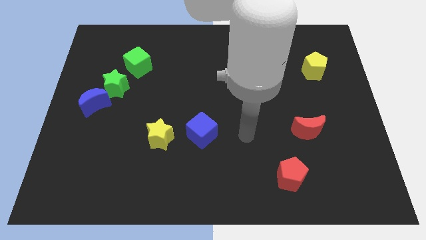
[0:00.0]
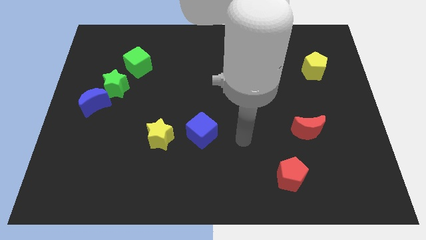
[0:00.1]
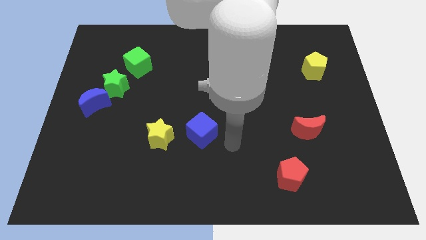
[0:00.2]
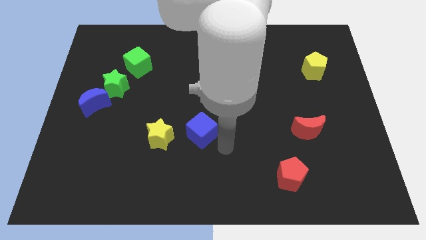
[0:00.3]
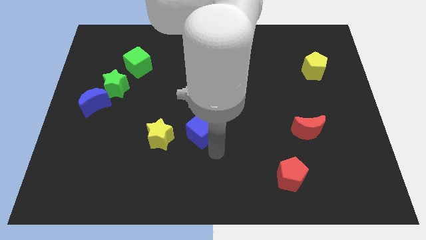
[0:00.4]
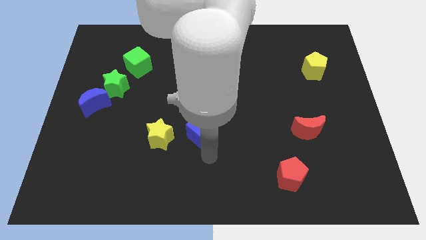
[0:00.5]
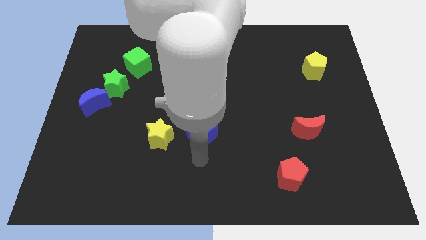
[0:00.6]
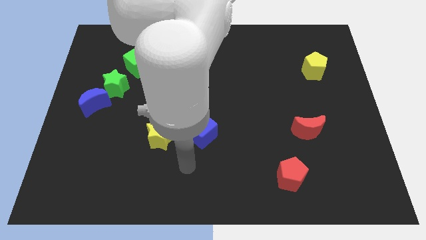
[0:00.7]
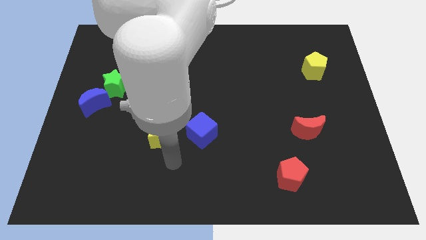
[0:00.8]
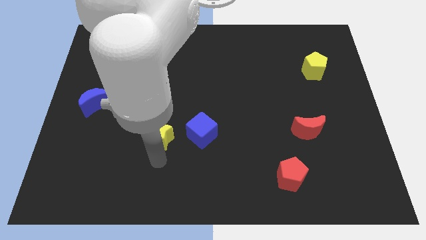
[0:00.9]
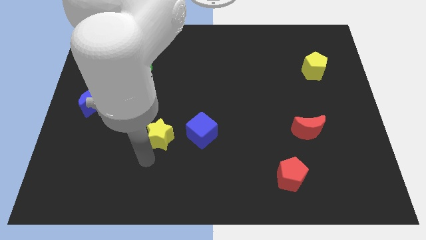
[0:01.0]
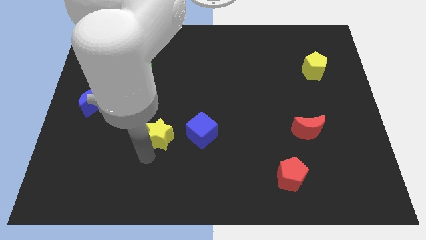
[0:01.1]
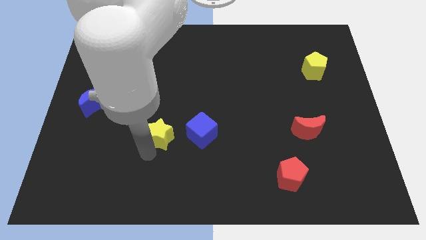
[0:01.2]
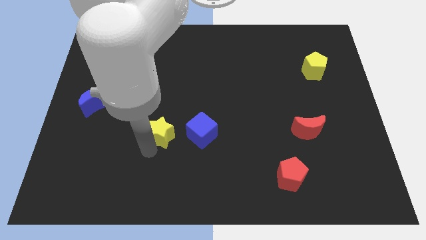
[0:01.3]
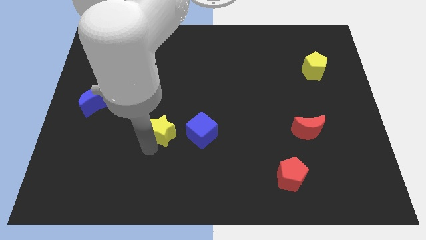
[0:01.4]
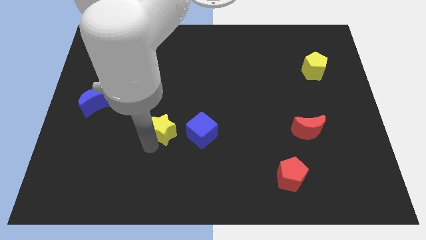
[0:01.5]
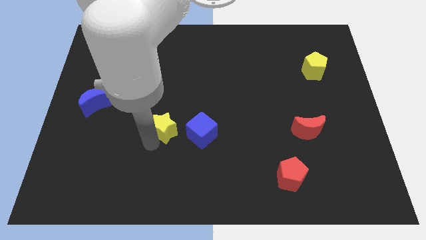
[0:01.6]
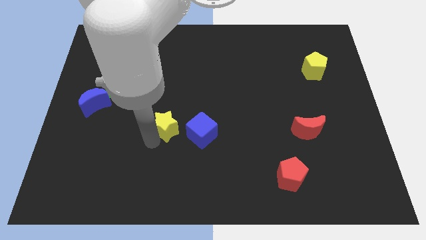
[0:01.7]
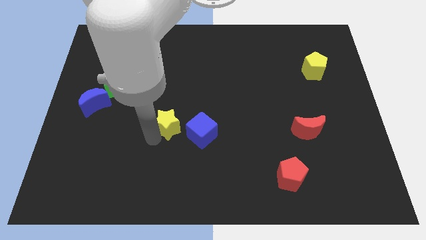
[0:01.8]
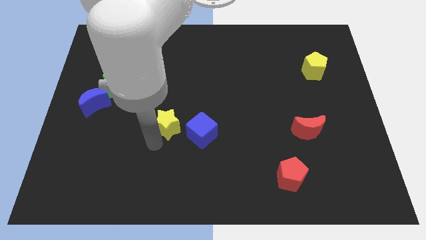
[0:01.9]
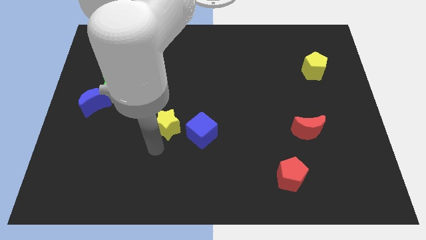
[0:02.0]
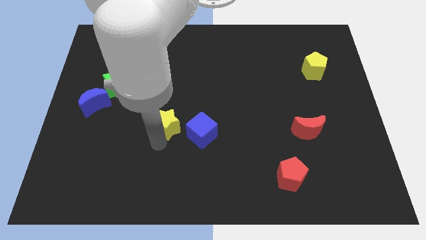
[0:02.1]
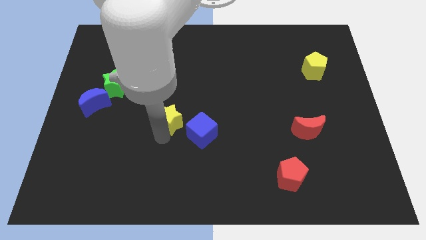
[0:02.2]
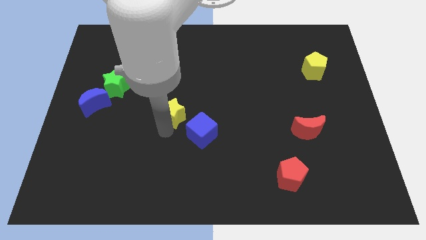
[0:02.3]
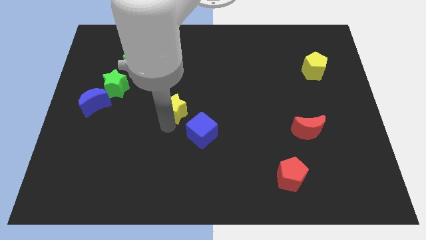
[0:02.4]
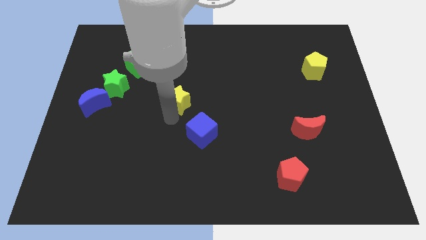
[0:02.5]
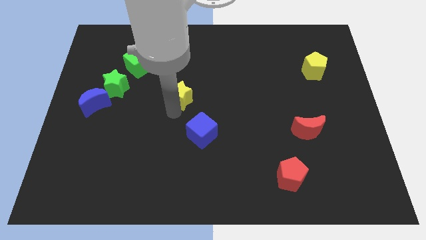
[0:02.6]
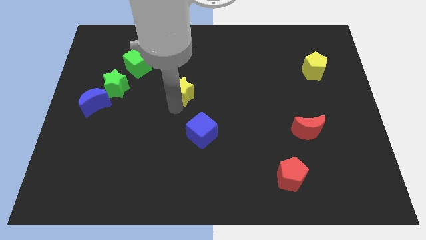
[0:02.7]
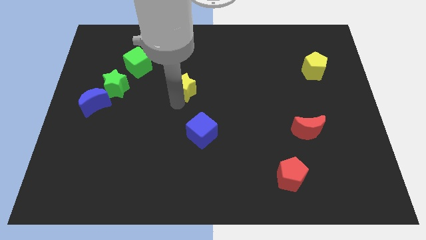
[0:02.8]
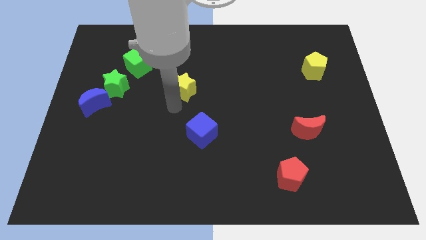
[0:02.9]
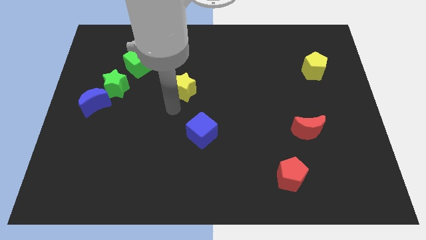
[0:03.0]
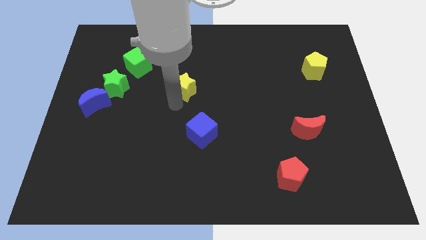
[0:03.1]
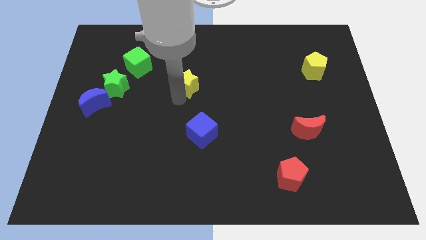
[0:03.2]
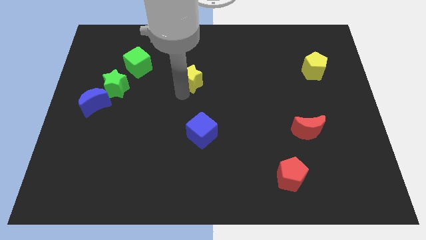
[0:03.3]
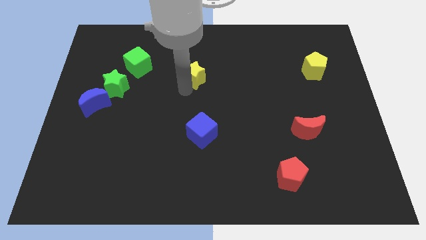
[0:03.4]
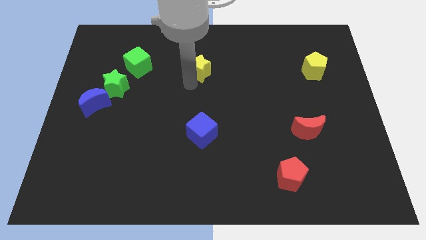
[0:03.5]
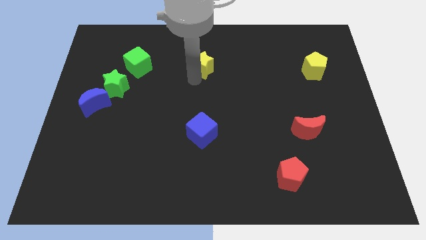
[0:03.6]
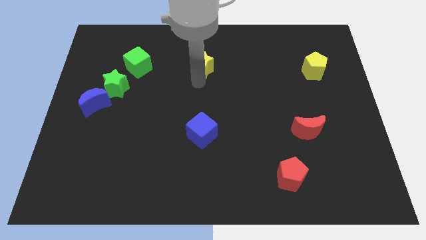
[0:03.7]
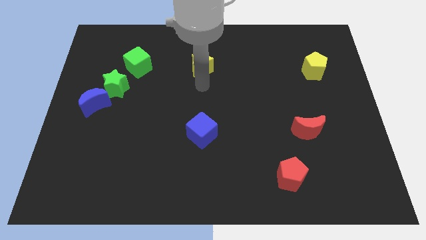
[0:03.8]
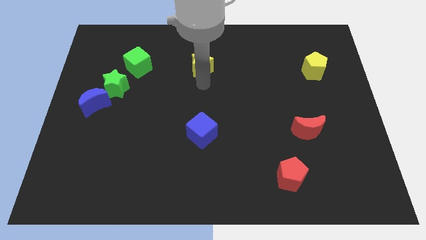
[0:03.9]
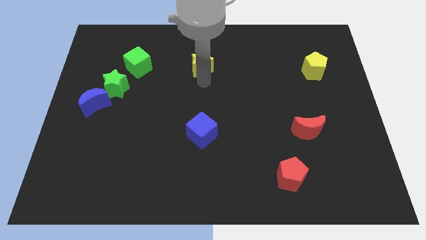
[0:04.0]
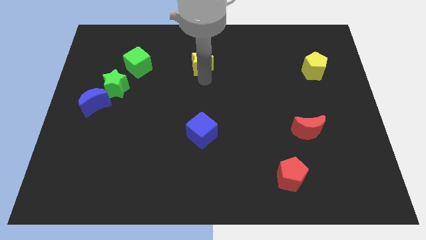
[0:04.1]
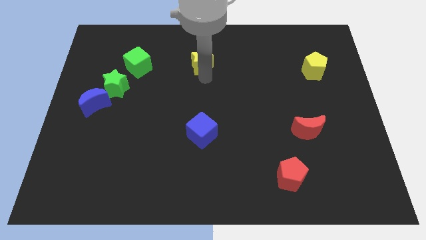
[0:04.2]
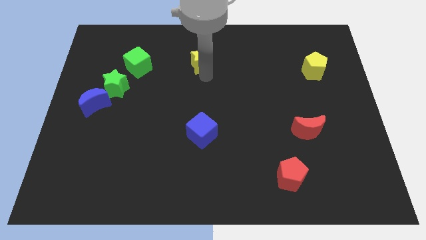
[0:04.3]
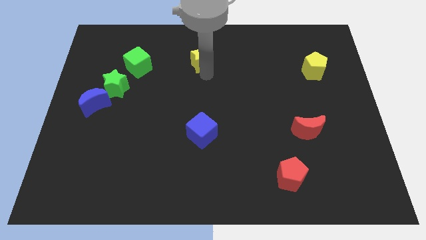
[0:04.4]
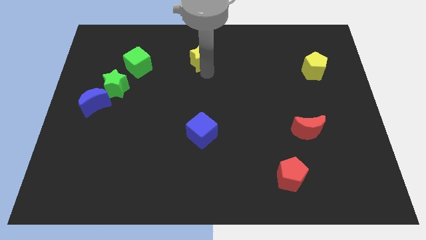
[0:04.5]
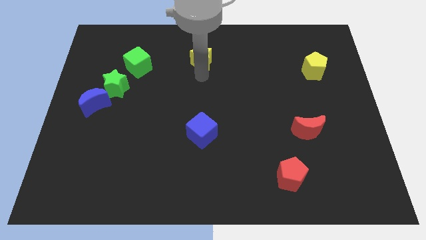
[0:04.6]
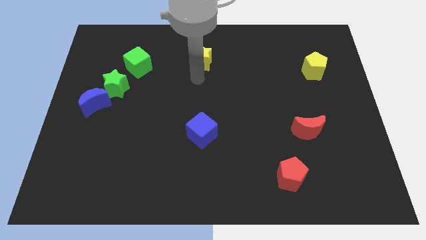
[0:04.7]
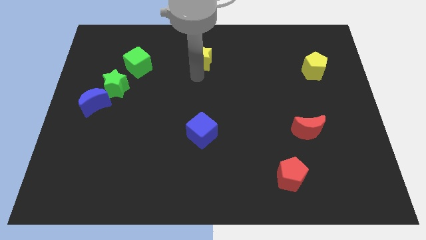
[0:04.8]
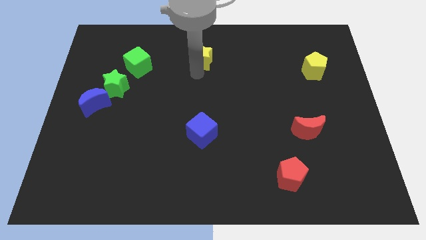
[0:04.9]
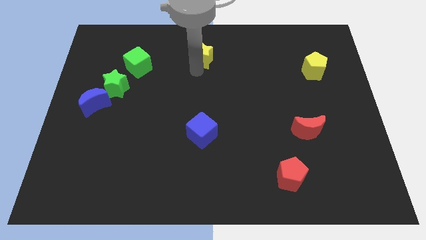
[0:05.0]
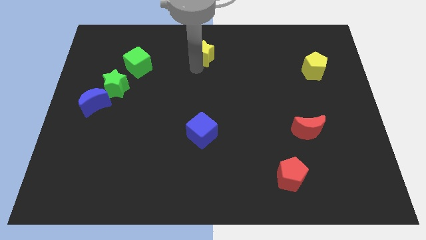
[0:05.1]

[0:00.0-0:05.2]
slide the yellow star to the top

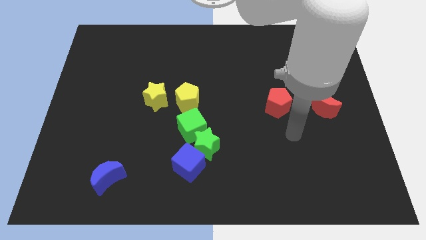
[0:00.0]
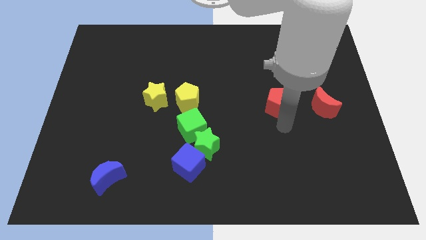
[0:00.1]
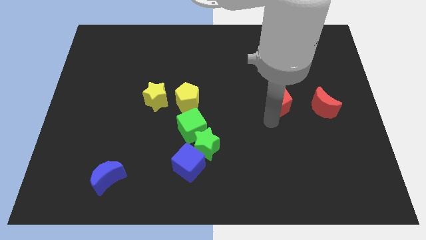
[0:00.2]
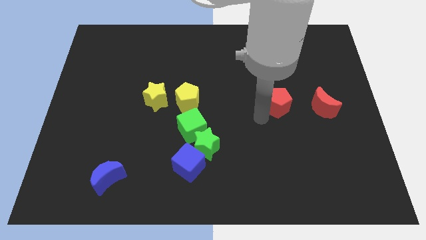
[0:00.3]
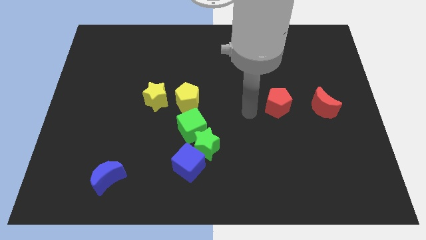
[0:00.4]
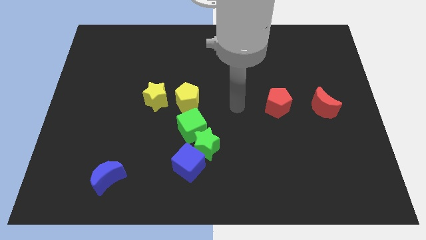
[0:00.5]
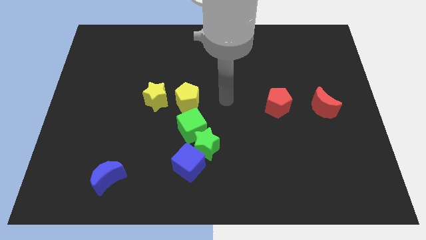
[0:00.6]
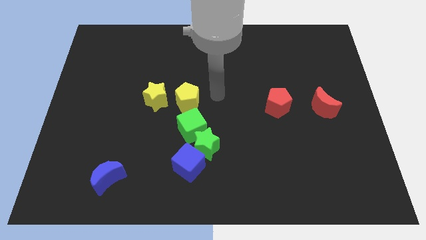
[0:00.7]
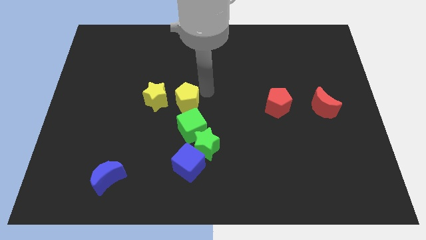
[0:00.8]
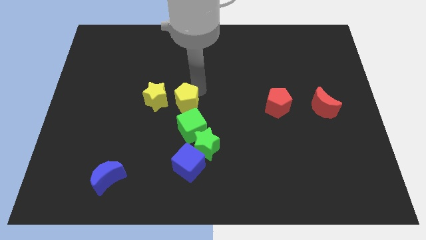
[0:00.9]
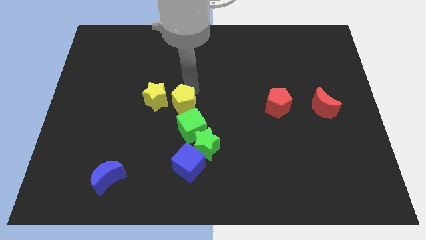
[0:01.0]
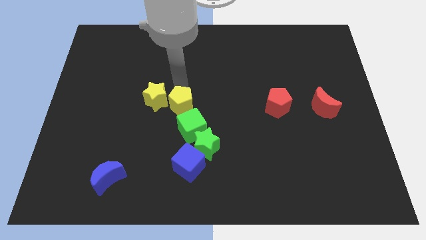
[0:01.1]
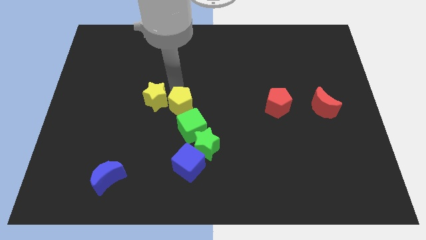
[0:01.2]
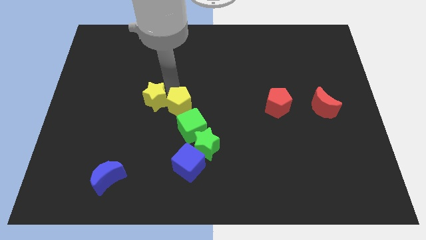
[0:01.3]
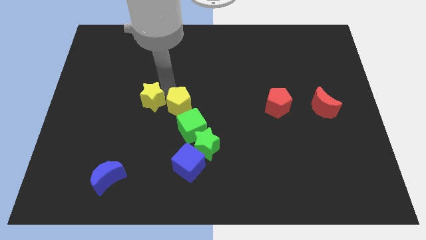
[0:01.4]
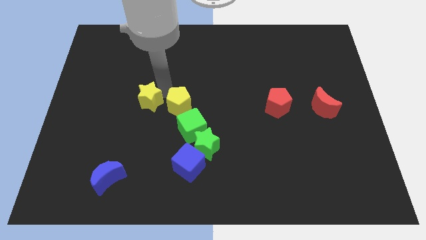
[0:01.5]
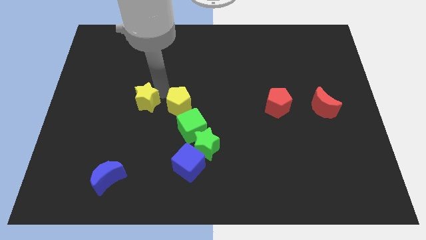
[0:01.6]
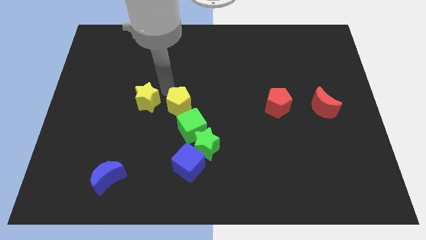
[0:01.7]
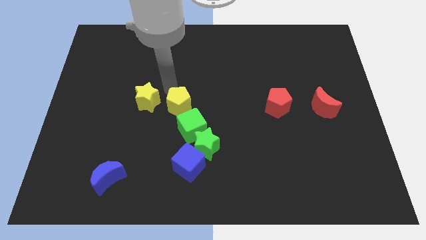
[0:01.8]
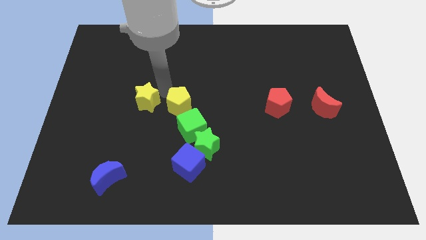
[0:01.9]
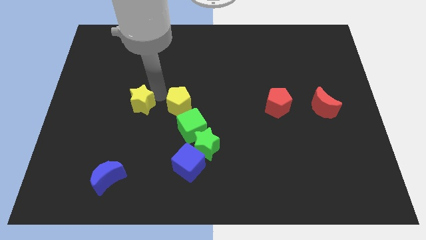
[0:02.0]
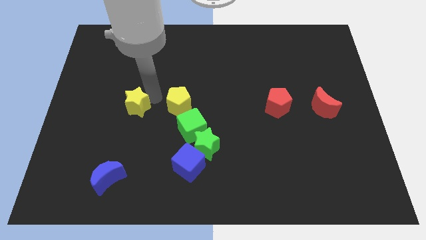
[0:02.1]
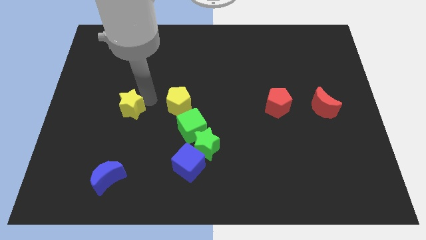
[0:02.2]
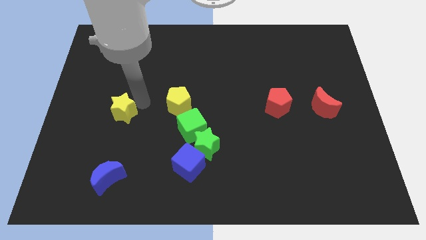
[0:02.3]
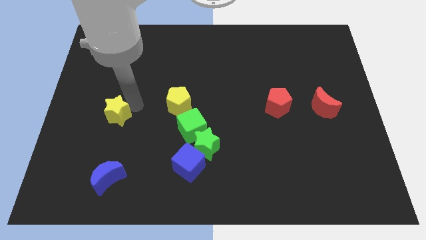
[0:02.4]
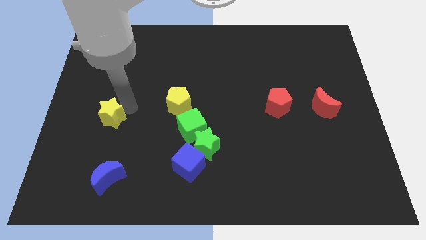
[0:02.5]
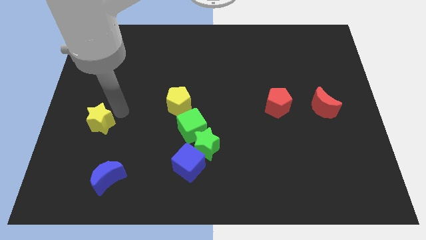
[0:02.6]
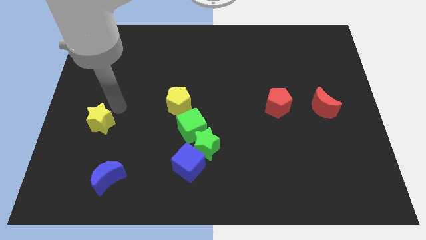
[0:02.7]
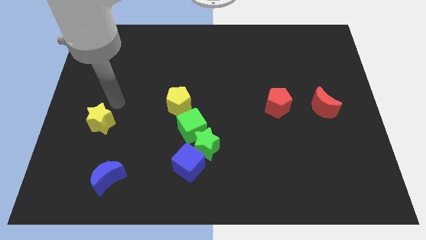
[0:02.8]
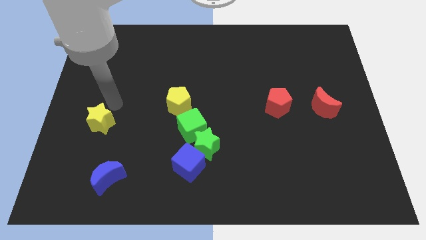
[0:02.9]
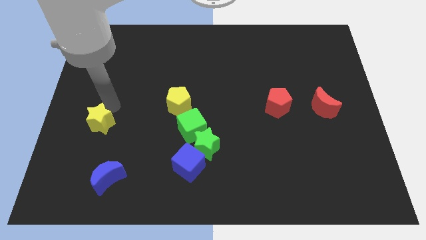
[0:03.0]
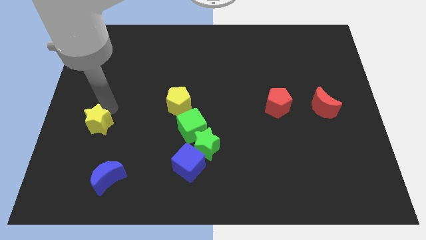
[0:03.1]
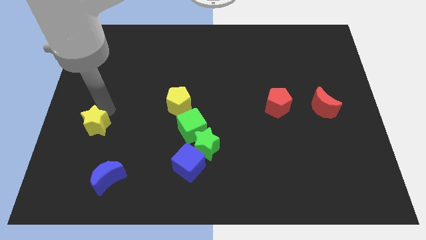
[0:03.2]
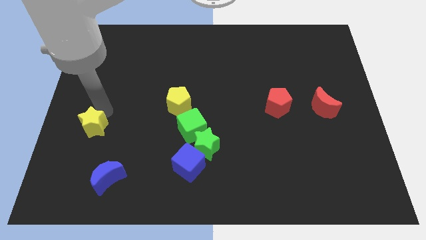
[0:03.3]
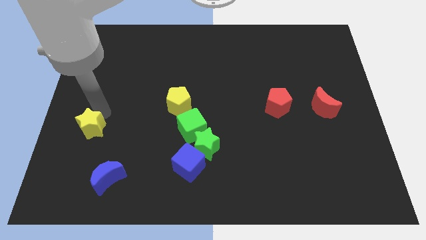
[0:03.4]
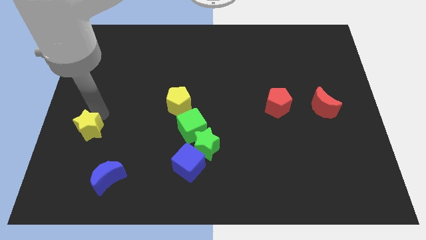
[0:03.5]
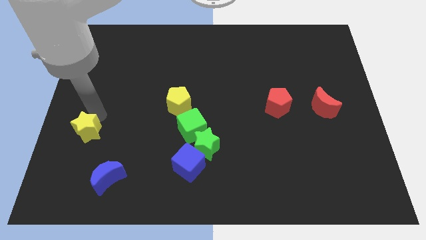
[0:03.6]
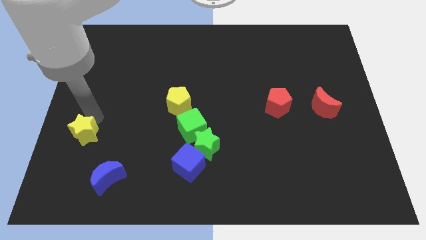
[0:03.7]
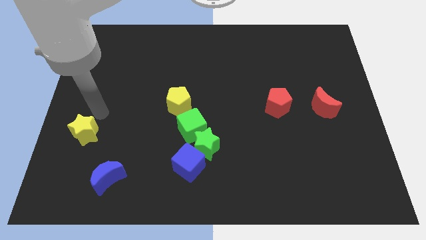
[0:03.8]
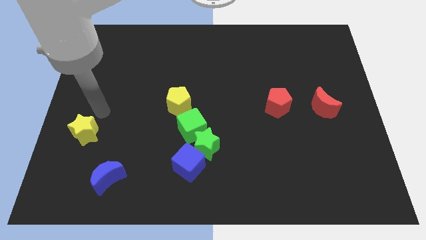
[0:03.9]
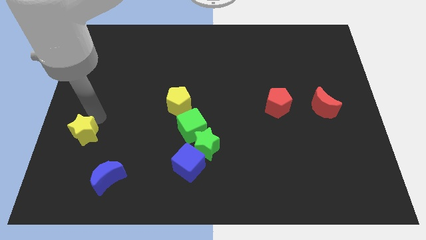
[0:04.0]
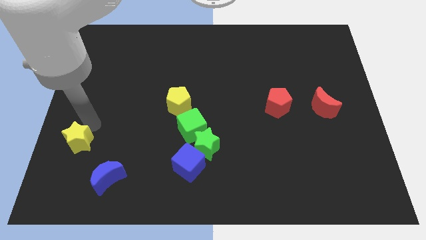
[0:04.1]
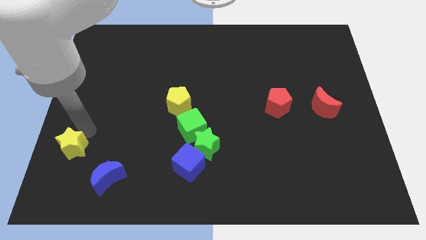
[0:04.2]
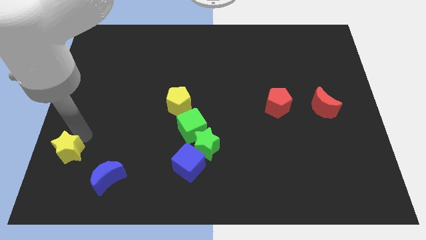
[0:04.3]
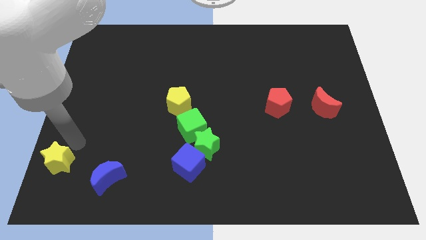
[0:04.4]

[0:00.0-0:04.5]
put the yellow star to the bottom left
